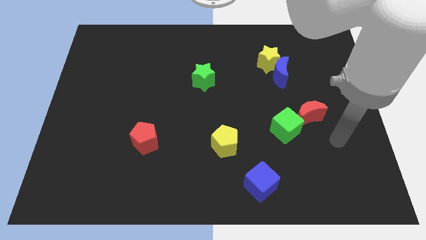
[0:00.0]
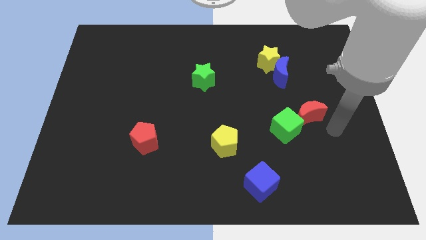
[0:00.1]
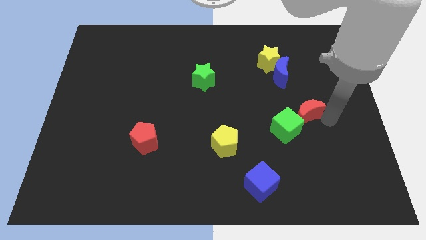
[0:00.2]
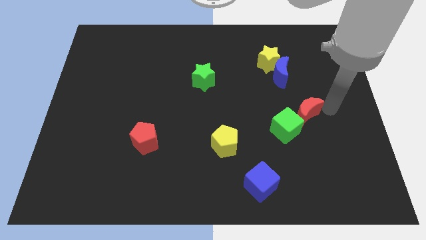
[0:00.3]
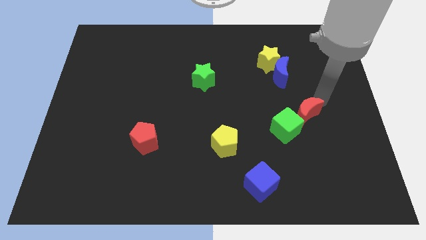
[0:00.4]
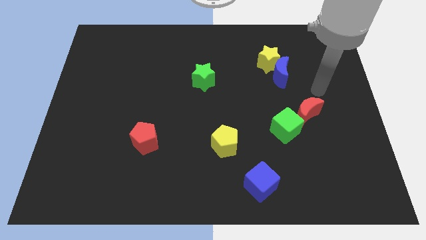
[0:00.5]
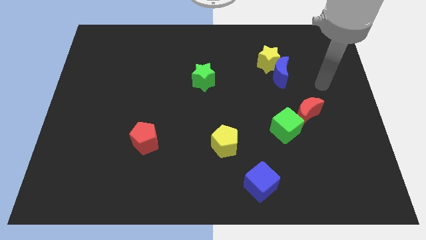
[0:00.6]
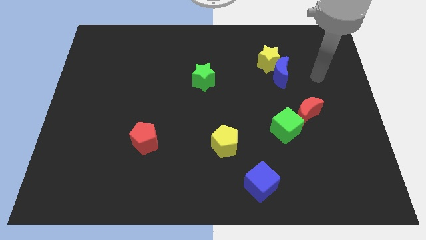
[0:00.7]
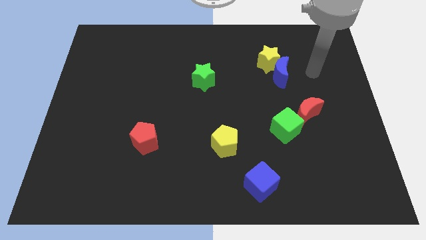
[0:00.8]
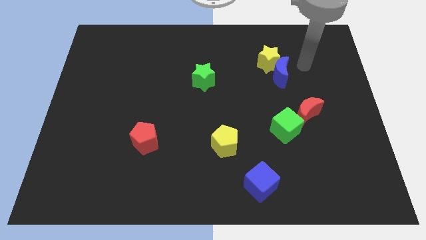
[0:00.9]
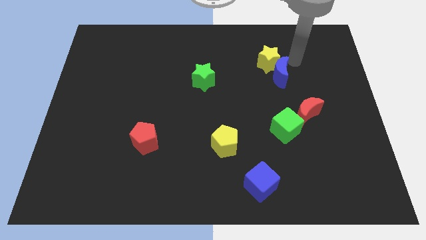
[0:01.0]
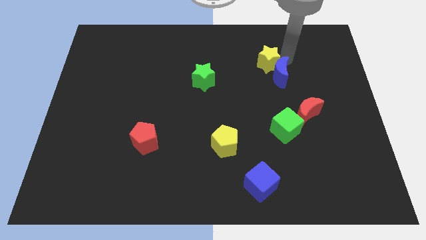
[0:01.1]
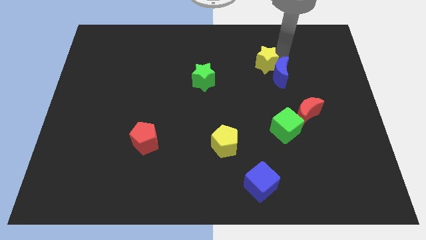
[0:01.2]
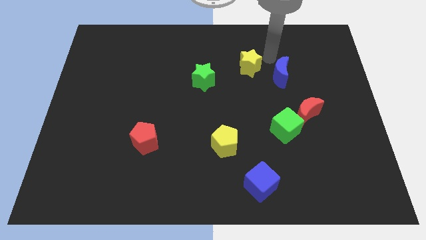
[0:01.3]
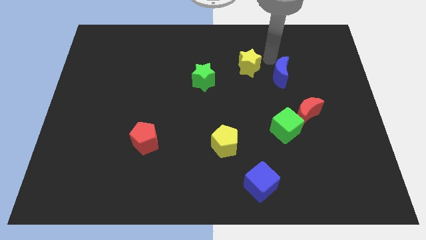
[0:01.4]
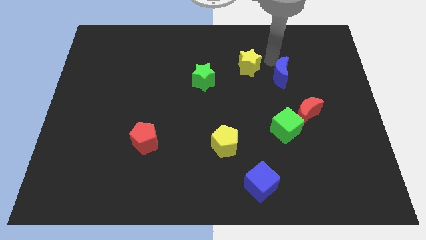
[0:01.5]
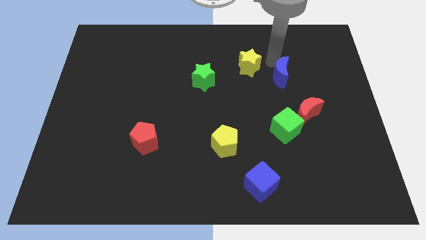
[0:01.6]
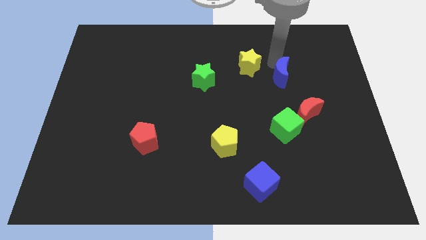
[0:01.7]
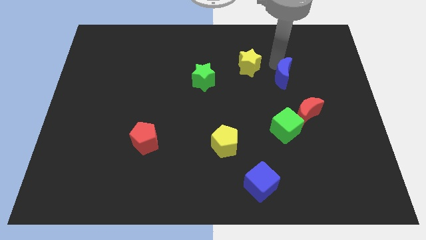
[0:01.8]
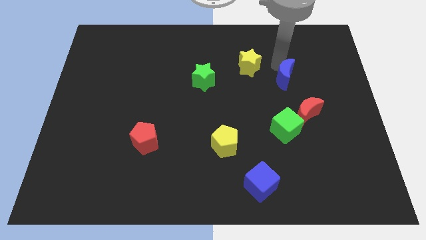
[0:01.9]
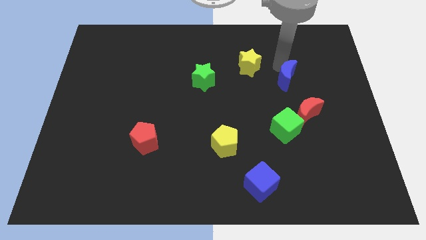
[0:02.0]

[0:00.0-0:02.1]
separate the blue moon from the yellow star

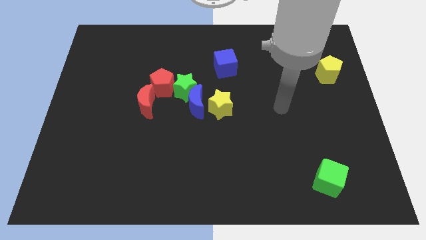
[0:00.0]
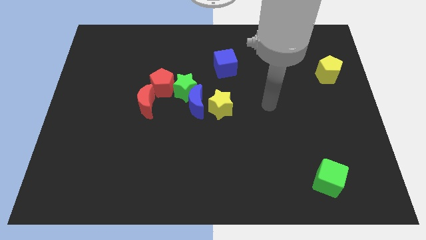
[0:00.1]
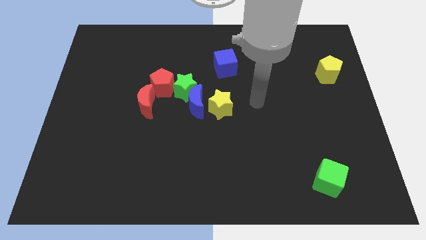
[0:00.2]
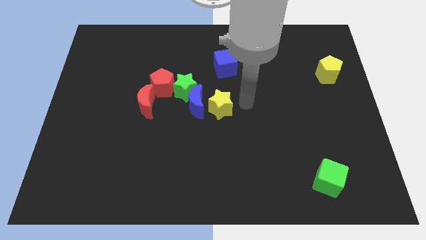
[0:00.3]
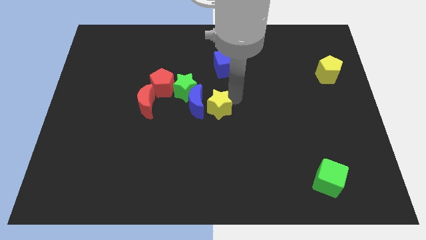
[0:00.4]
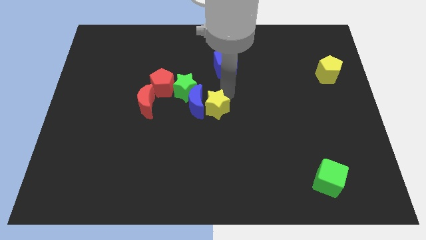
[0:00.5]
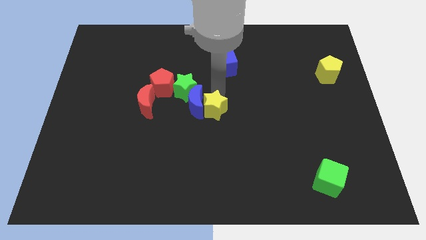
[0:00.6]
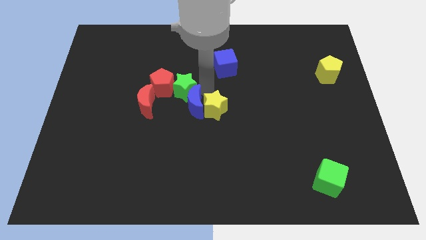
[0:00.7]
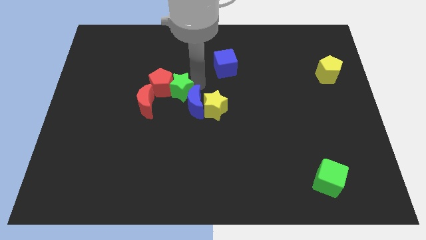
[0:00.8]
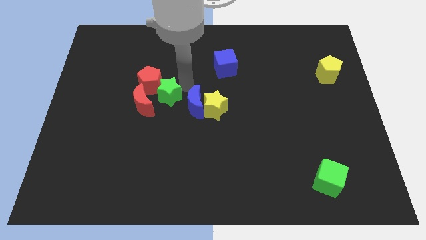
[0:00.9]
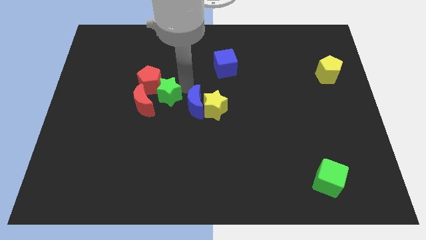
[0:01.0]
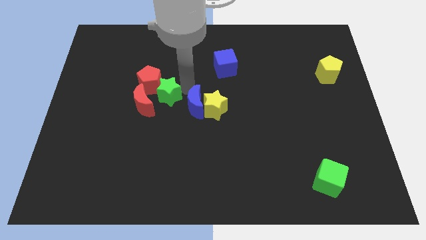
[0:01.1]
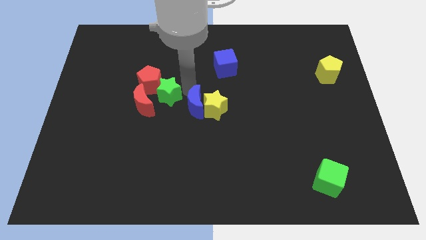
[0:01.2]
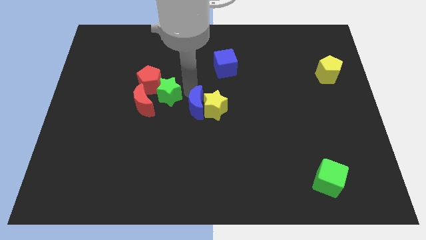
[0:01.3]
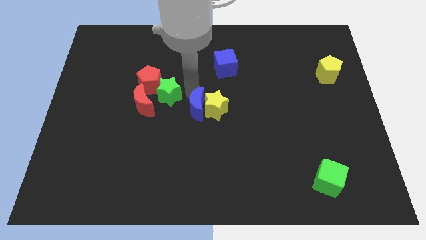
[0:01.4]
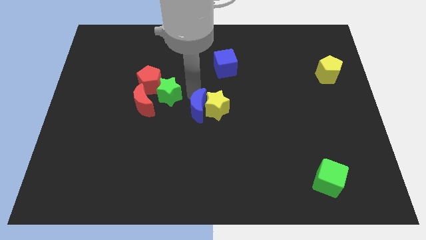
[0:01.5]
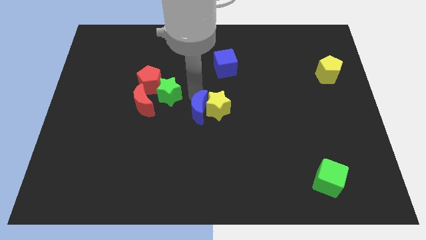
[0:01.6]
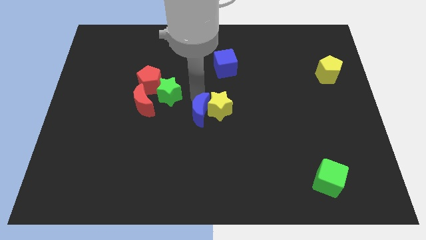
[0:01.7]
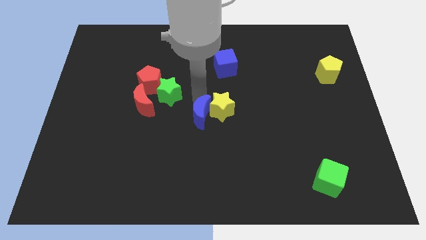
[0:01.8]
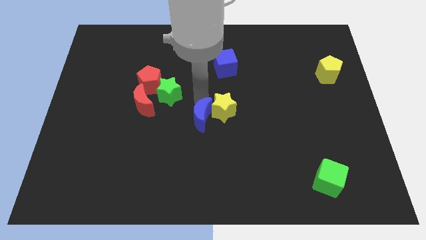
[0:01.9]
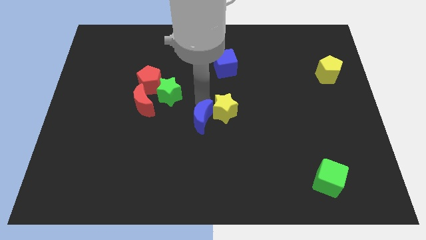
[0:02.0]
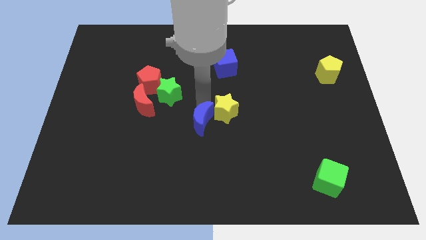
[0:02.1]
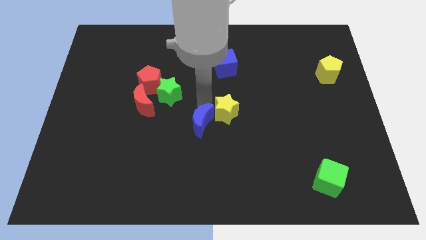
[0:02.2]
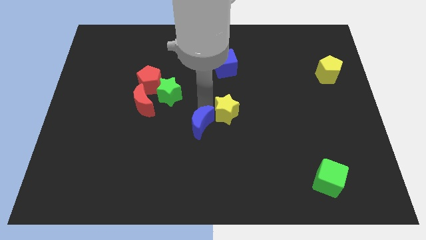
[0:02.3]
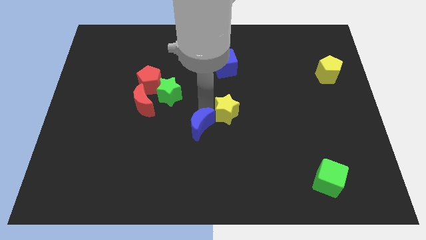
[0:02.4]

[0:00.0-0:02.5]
pull the blue moon apart from the group of blocks

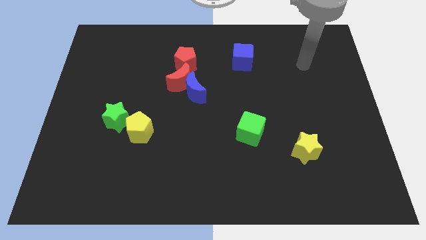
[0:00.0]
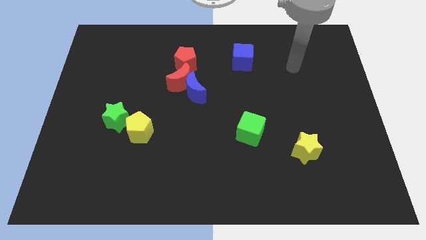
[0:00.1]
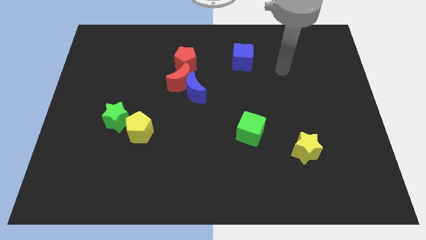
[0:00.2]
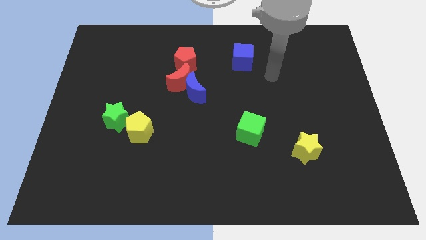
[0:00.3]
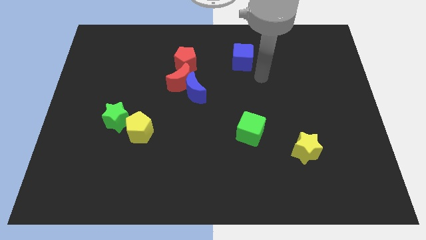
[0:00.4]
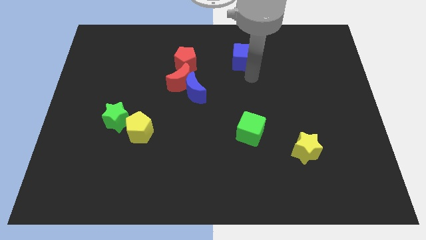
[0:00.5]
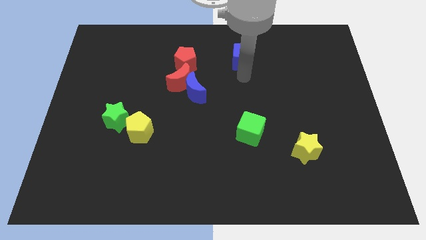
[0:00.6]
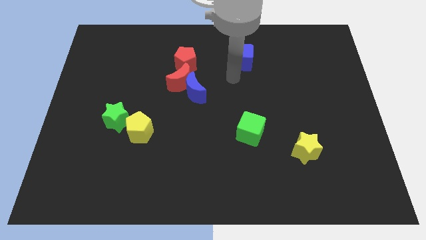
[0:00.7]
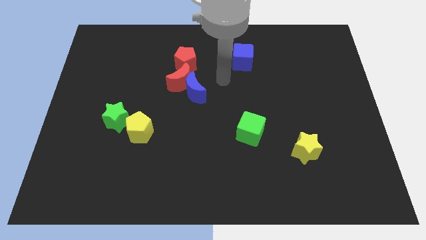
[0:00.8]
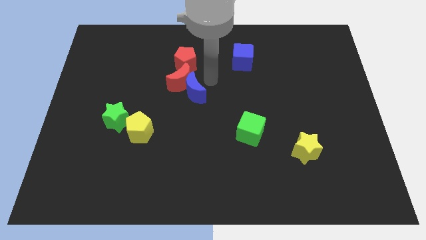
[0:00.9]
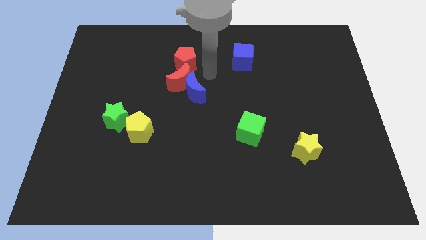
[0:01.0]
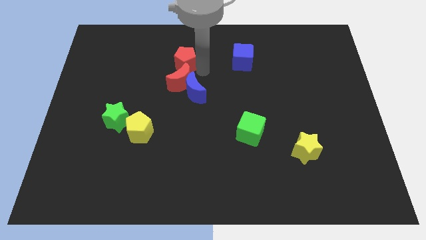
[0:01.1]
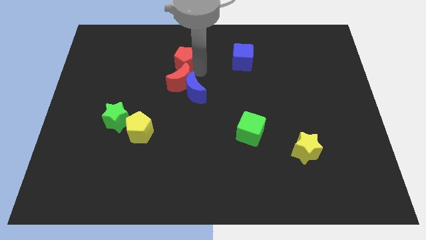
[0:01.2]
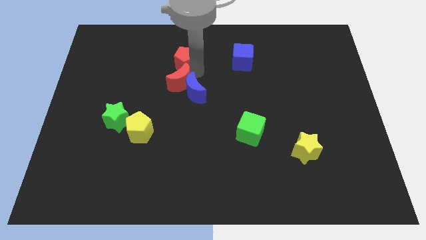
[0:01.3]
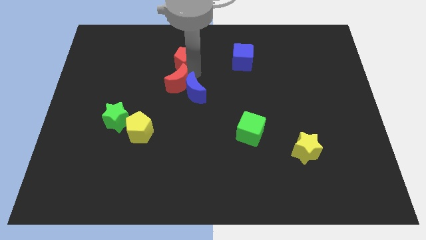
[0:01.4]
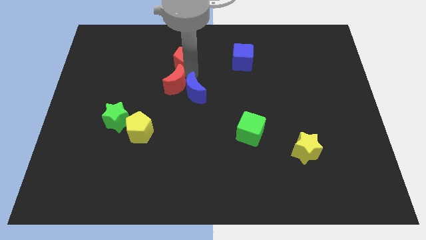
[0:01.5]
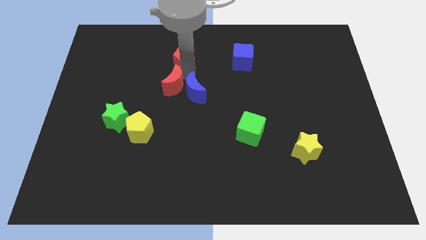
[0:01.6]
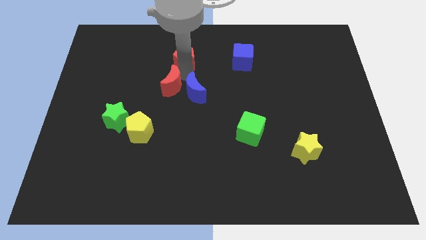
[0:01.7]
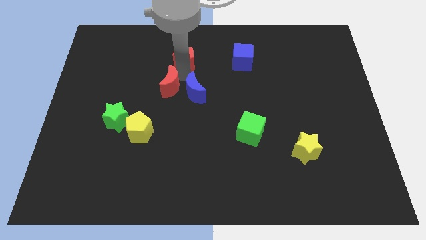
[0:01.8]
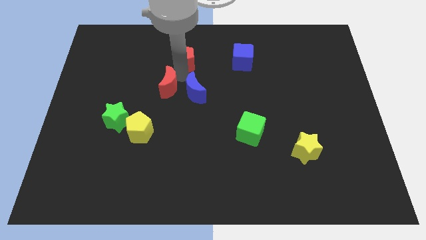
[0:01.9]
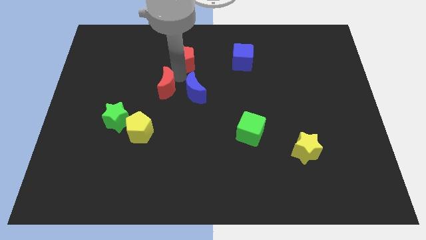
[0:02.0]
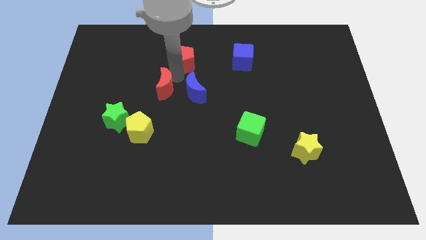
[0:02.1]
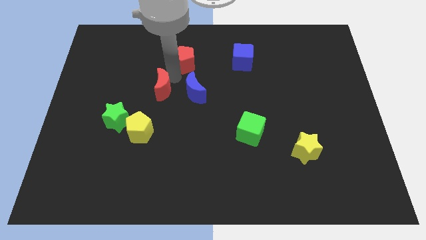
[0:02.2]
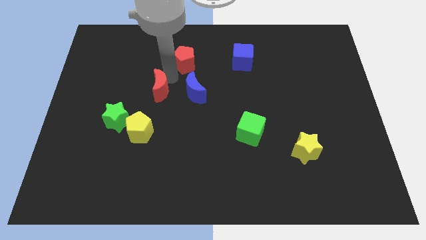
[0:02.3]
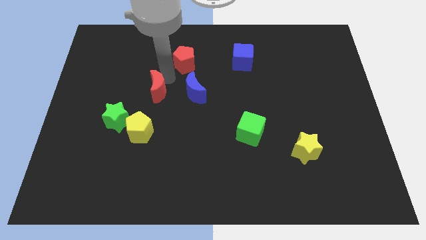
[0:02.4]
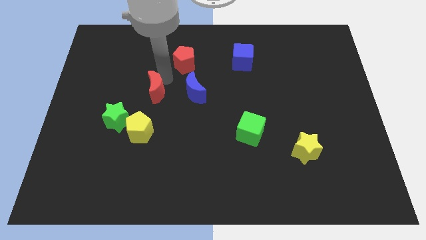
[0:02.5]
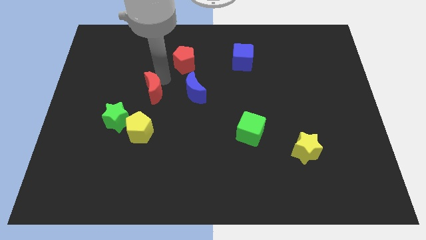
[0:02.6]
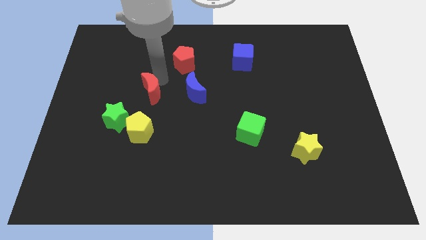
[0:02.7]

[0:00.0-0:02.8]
move the red moon away from the blue moon and red pentagon

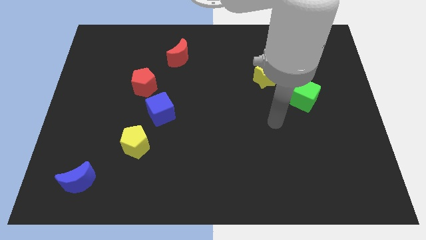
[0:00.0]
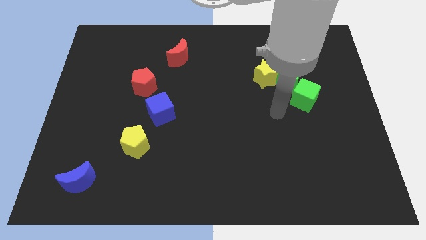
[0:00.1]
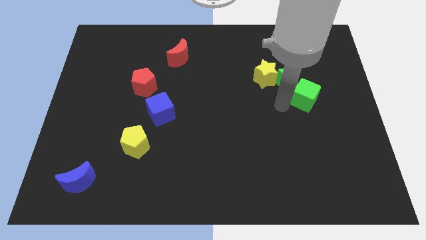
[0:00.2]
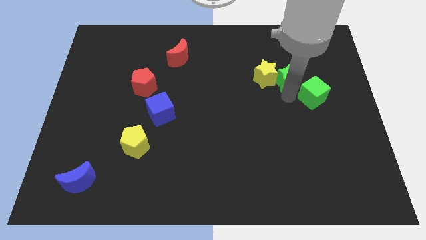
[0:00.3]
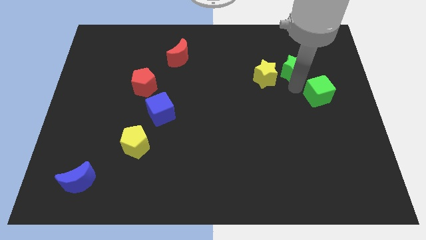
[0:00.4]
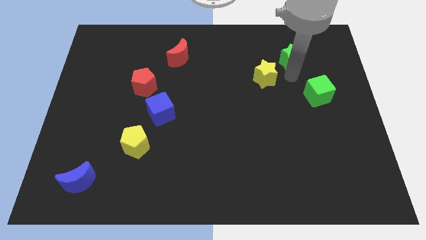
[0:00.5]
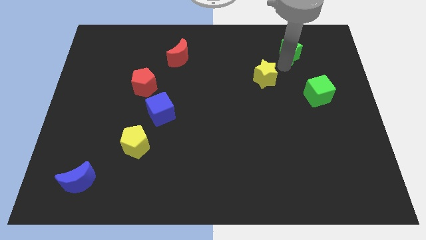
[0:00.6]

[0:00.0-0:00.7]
pull the yellow star apart from the green star

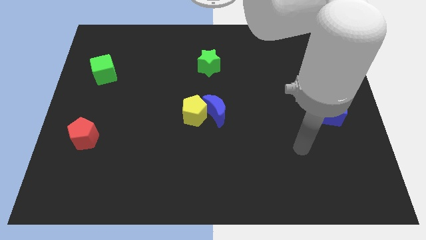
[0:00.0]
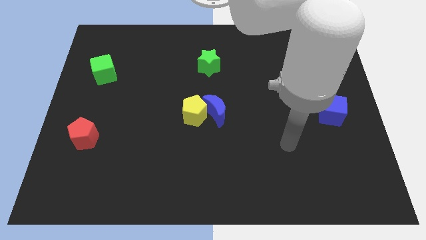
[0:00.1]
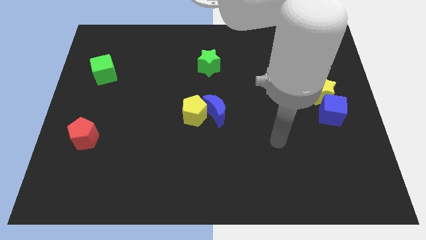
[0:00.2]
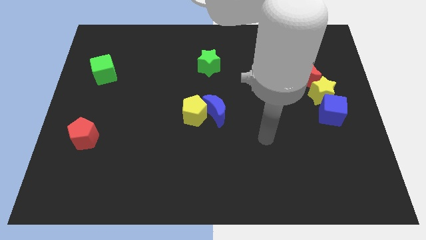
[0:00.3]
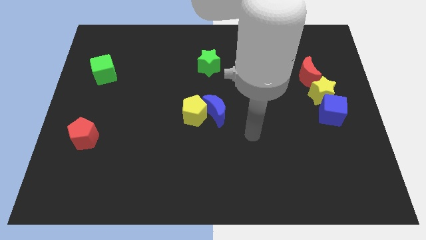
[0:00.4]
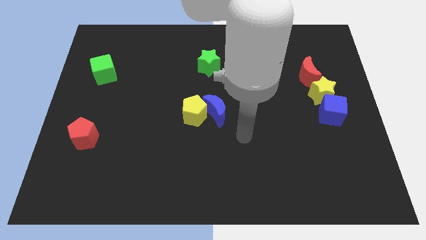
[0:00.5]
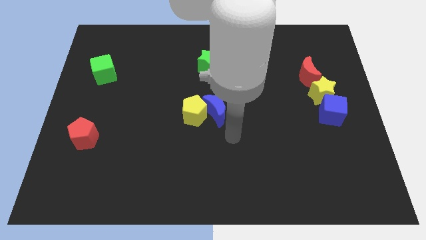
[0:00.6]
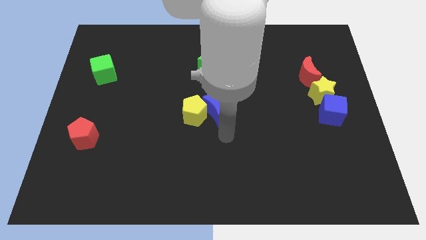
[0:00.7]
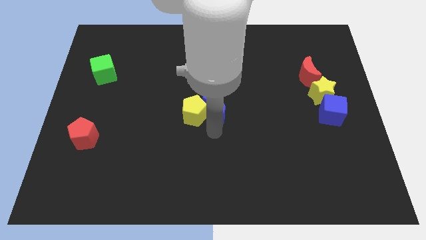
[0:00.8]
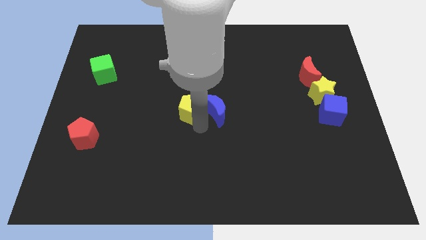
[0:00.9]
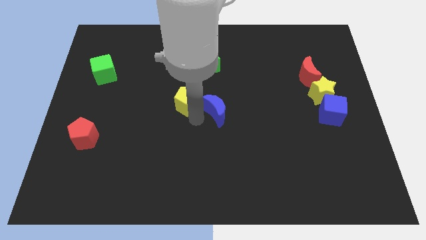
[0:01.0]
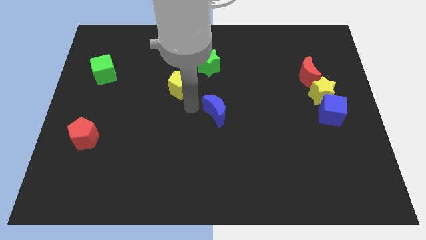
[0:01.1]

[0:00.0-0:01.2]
pull the blue moon apart from the yellow pentagon
